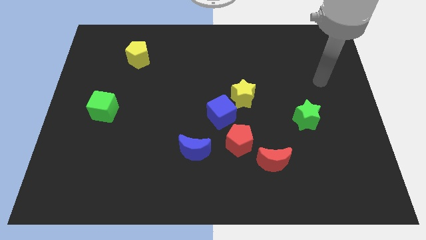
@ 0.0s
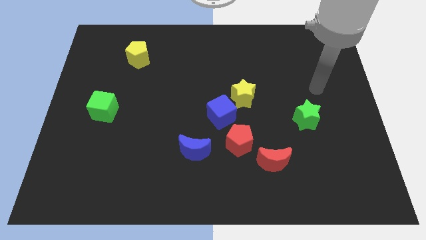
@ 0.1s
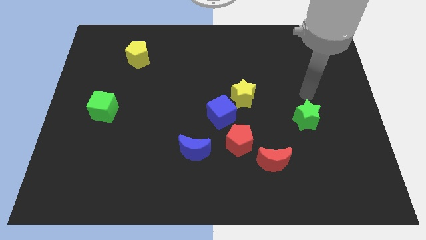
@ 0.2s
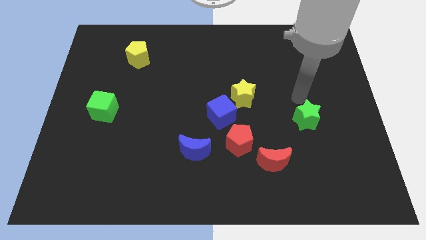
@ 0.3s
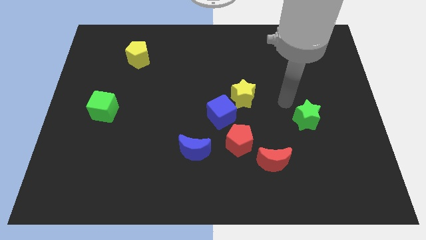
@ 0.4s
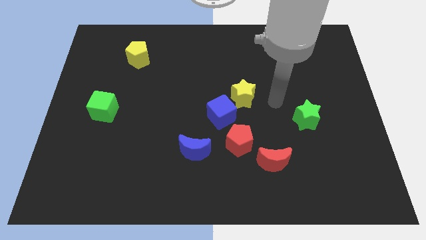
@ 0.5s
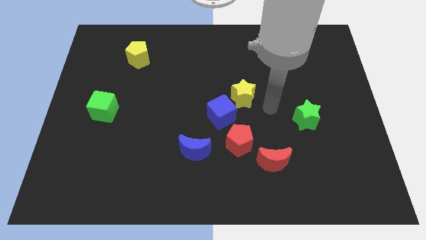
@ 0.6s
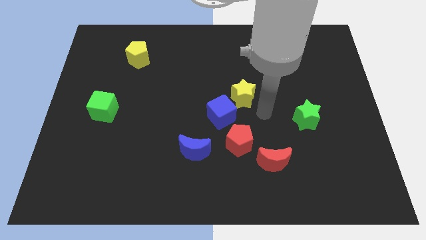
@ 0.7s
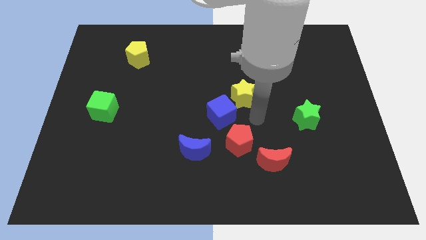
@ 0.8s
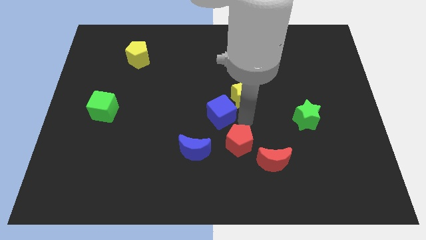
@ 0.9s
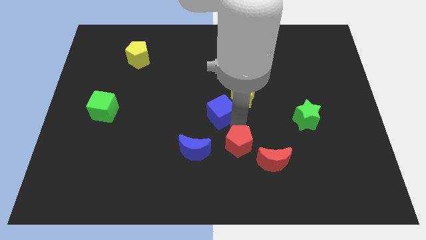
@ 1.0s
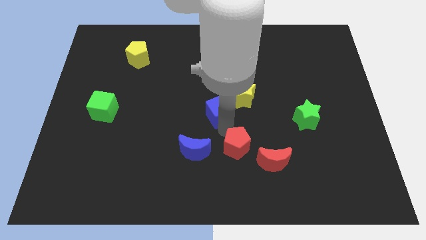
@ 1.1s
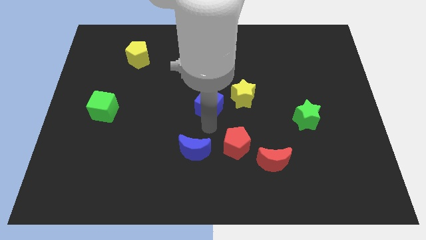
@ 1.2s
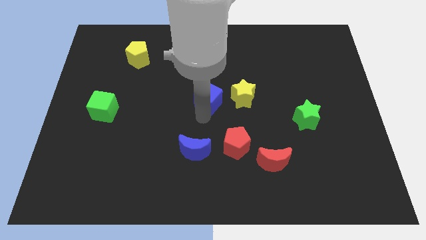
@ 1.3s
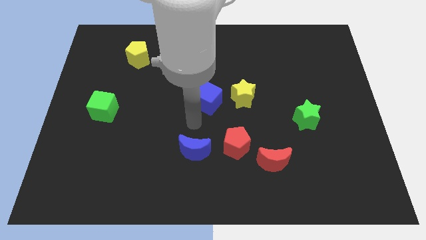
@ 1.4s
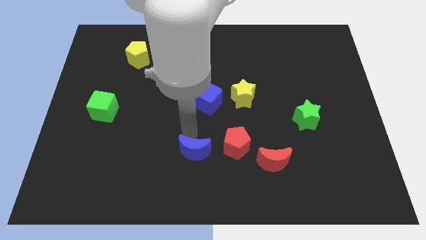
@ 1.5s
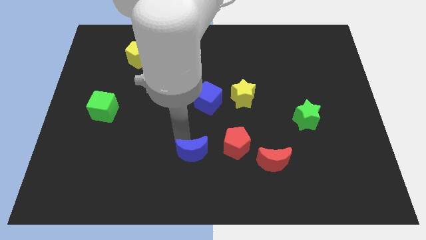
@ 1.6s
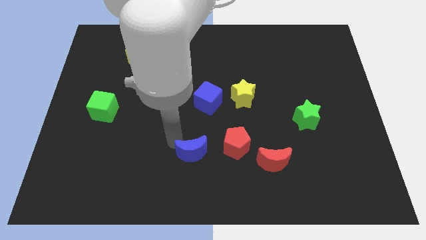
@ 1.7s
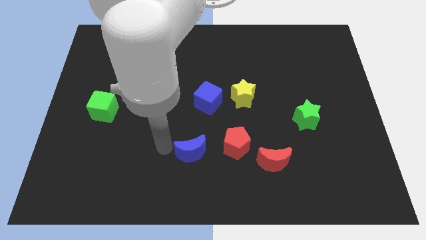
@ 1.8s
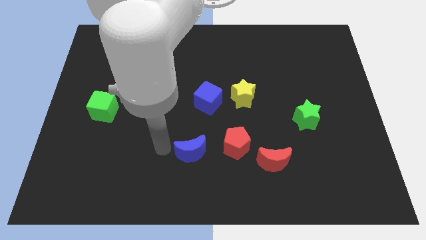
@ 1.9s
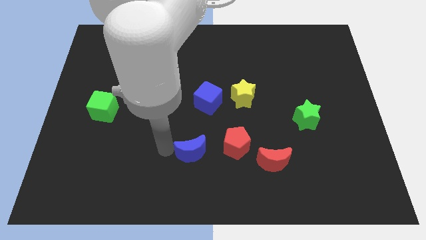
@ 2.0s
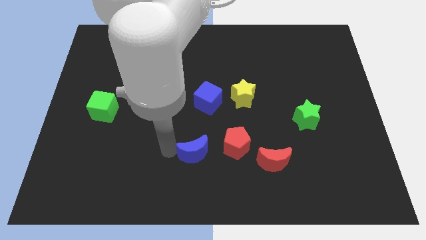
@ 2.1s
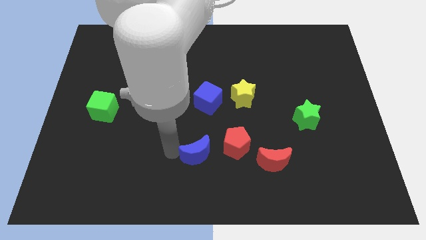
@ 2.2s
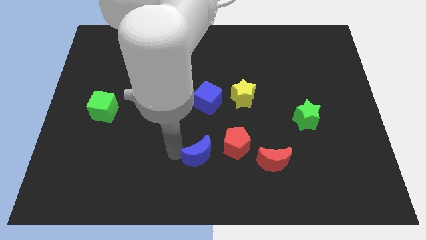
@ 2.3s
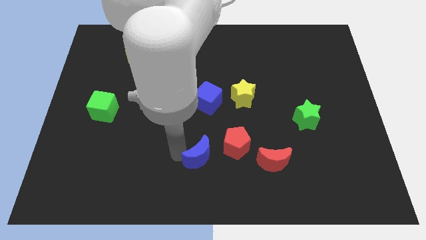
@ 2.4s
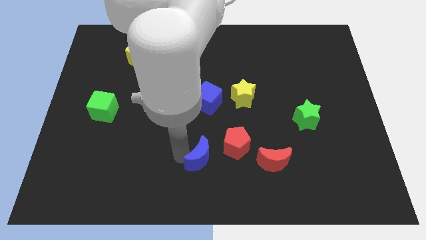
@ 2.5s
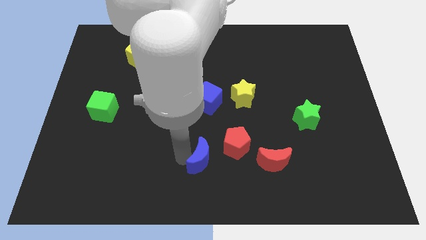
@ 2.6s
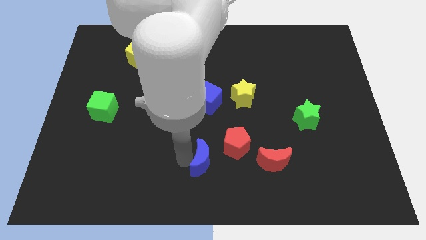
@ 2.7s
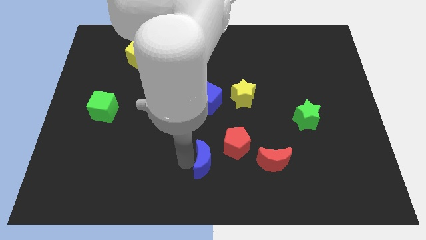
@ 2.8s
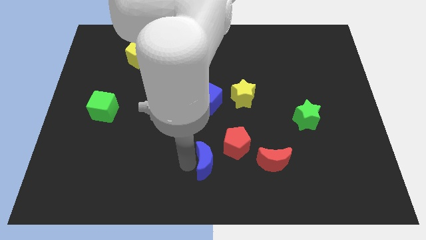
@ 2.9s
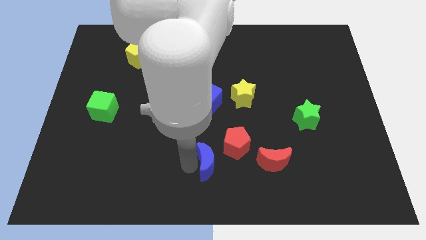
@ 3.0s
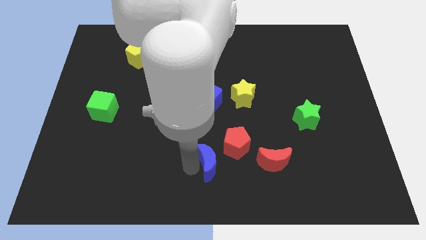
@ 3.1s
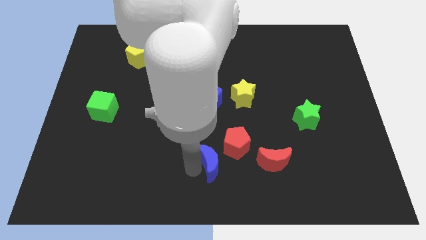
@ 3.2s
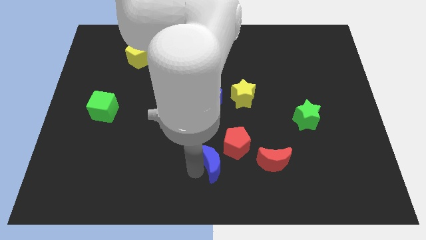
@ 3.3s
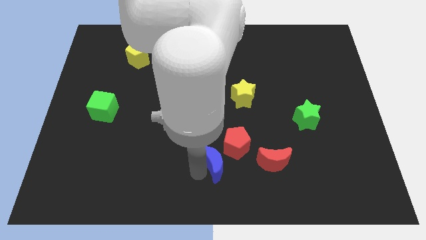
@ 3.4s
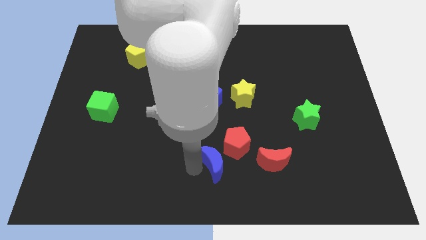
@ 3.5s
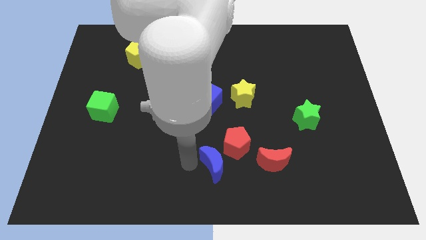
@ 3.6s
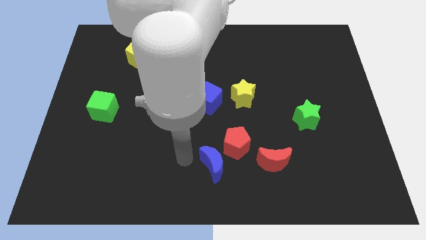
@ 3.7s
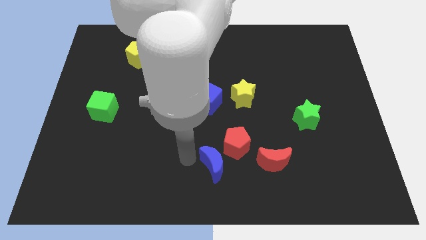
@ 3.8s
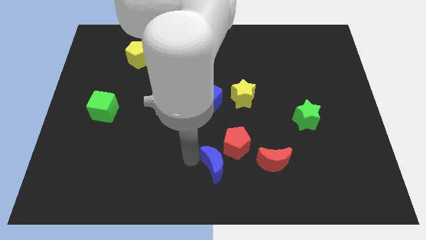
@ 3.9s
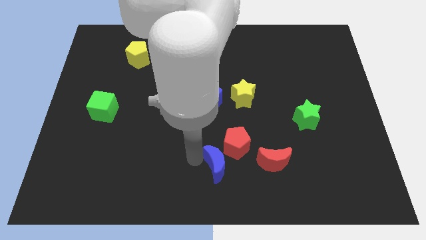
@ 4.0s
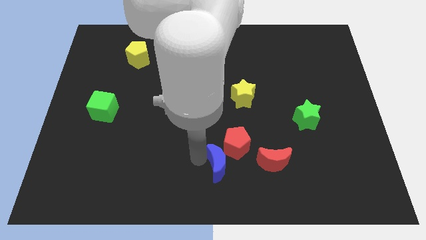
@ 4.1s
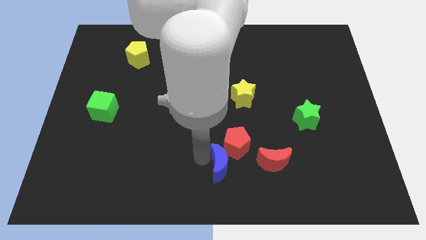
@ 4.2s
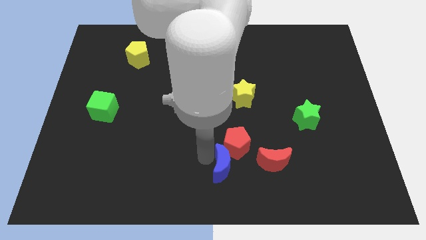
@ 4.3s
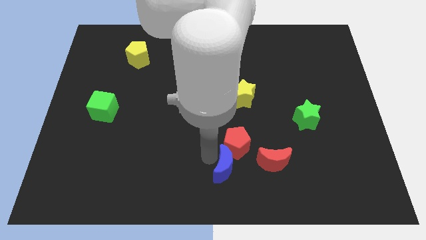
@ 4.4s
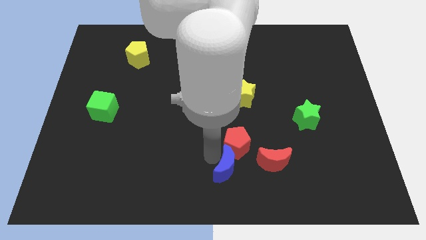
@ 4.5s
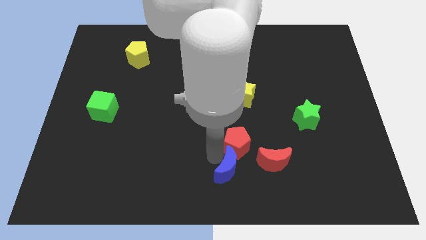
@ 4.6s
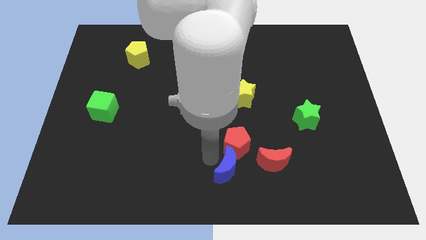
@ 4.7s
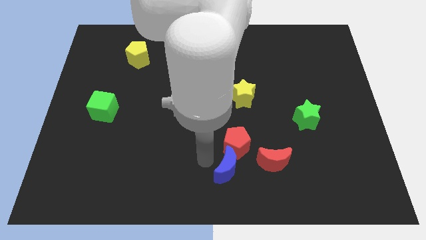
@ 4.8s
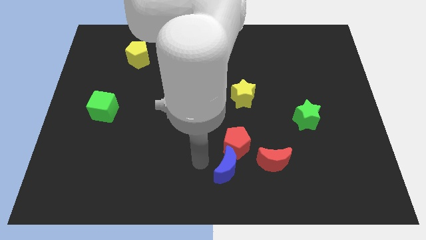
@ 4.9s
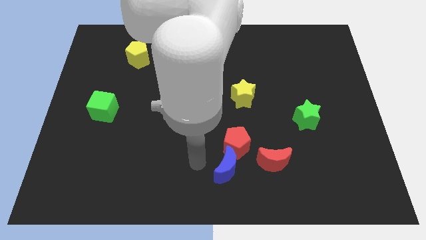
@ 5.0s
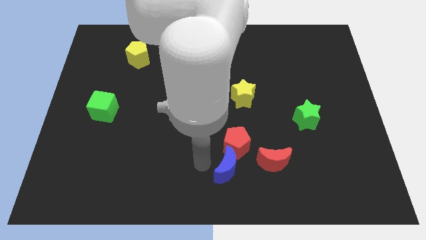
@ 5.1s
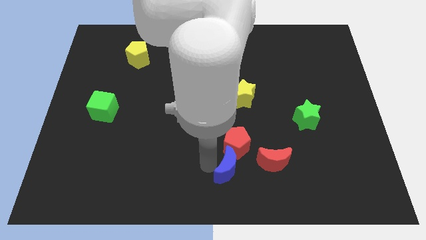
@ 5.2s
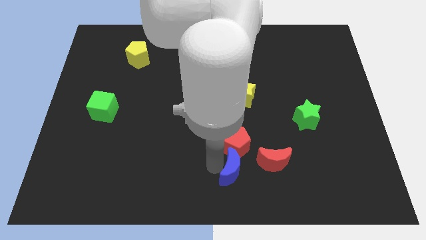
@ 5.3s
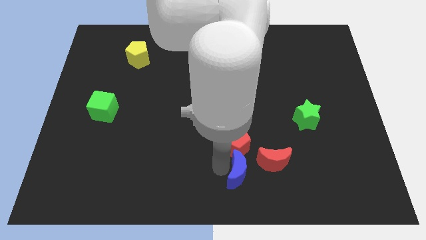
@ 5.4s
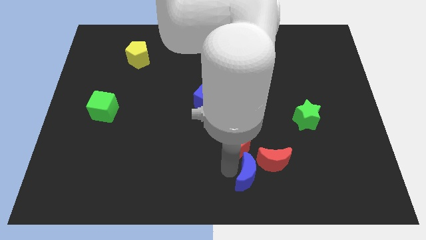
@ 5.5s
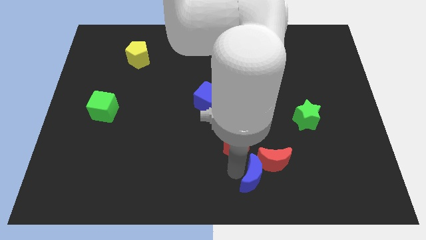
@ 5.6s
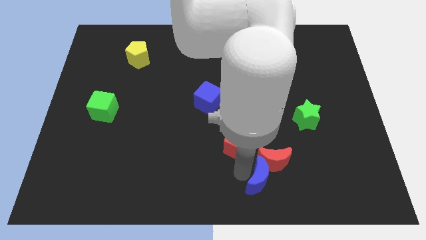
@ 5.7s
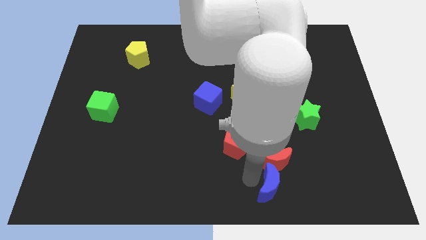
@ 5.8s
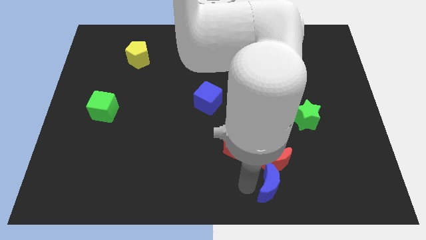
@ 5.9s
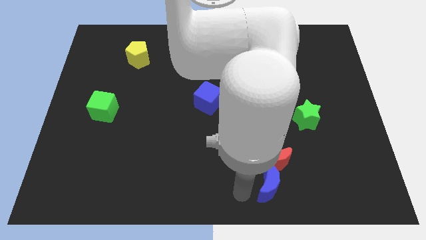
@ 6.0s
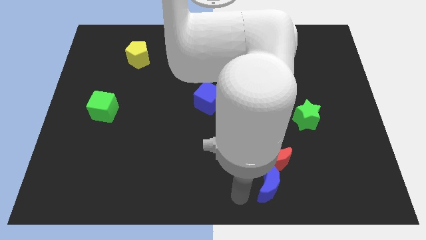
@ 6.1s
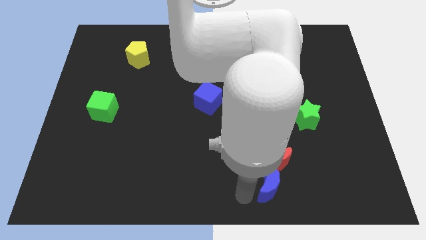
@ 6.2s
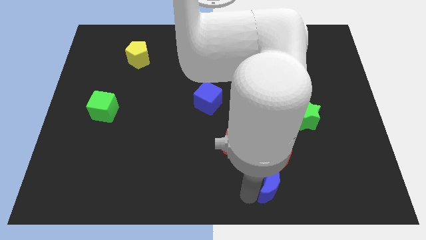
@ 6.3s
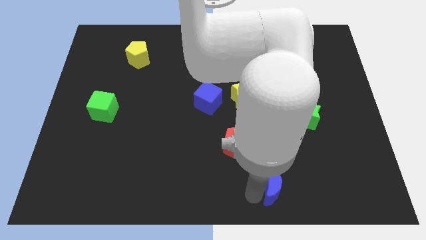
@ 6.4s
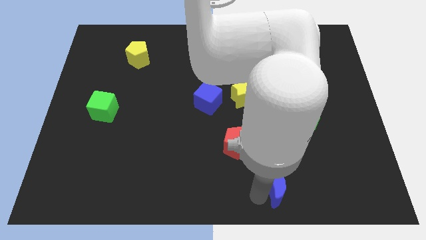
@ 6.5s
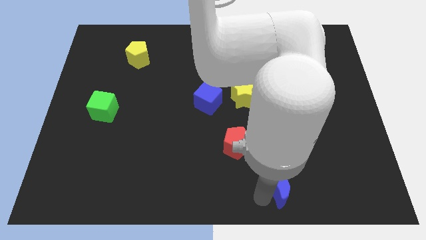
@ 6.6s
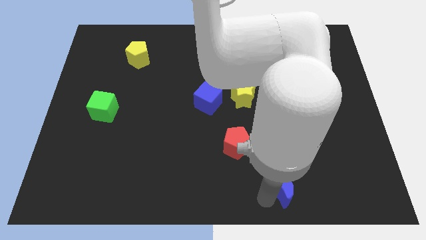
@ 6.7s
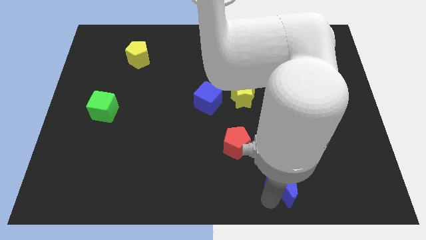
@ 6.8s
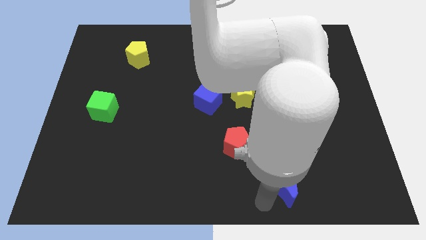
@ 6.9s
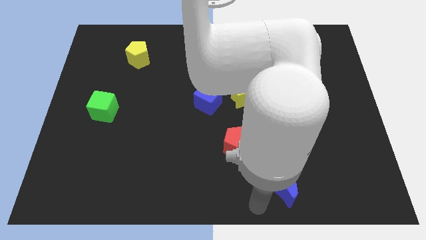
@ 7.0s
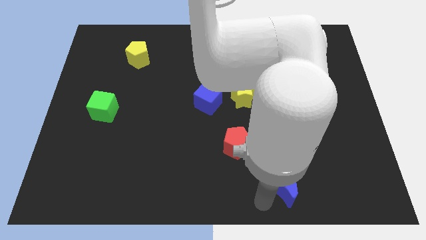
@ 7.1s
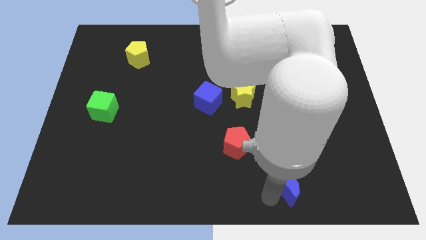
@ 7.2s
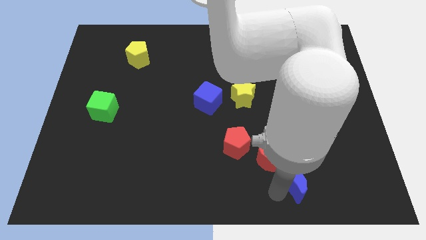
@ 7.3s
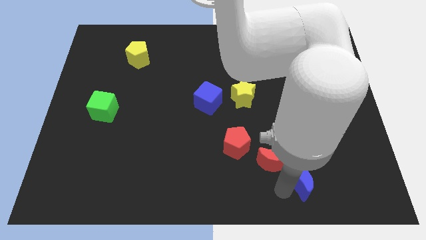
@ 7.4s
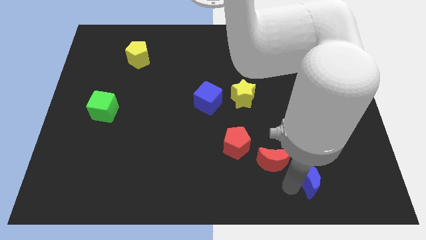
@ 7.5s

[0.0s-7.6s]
move the blue moon to the right

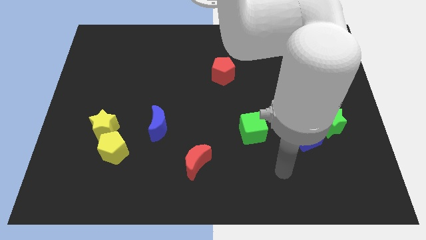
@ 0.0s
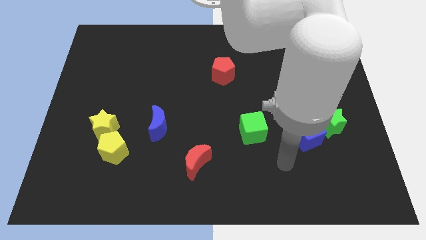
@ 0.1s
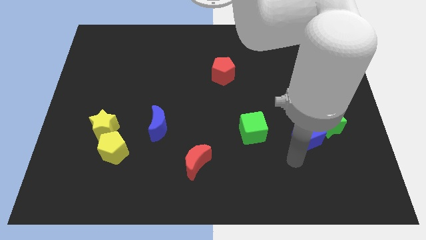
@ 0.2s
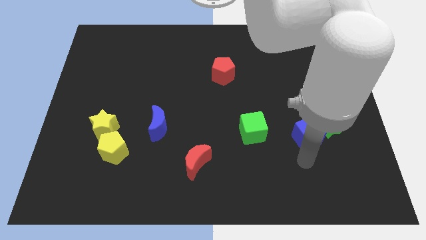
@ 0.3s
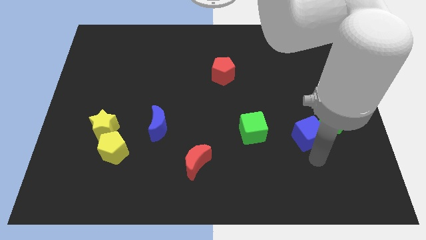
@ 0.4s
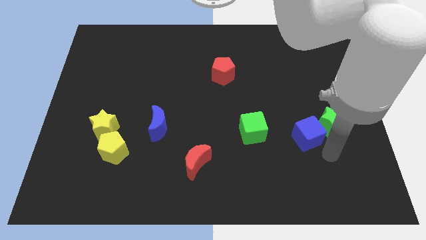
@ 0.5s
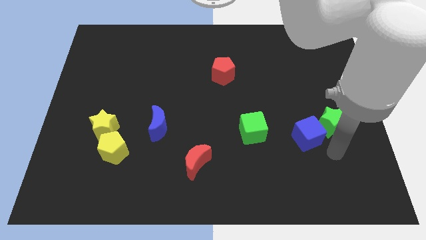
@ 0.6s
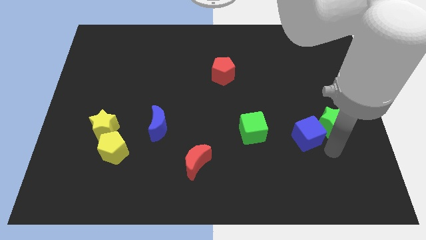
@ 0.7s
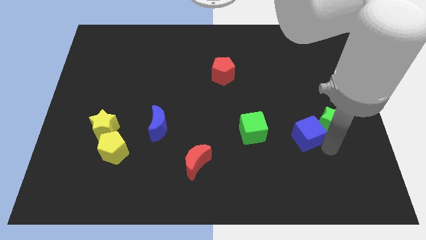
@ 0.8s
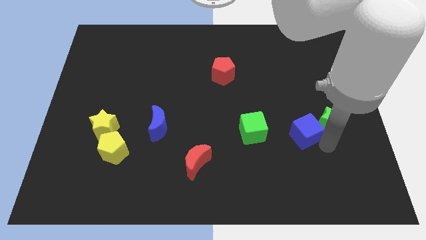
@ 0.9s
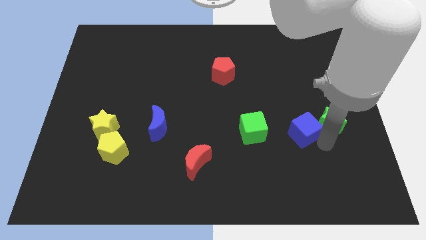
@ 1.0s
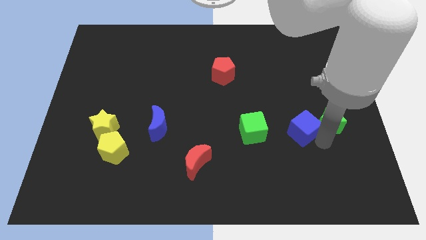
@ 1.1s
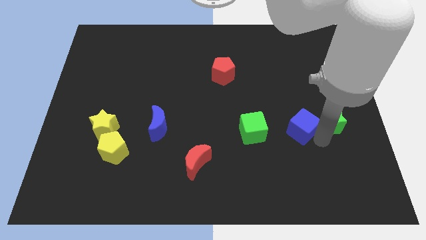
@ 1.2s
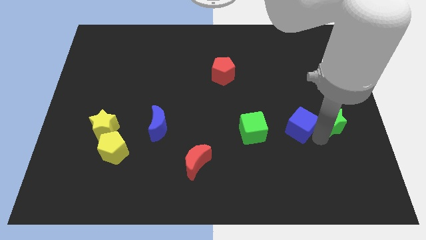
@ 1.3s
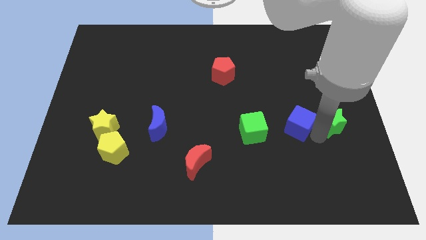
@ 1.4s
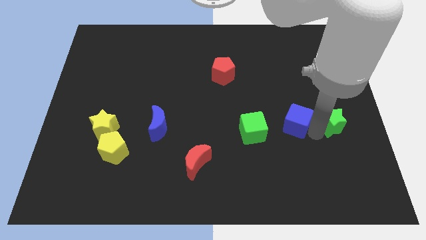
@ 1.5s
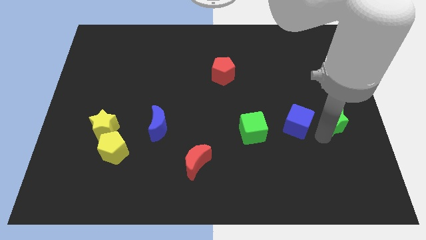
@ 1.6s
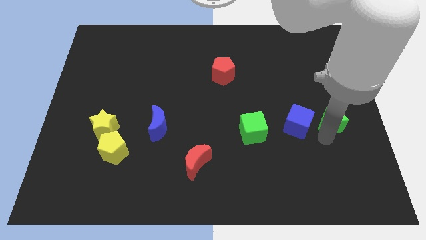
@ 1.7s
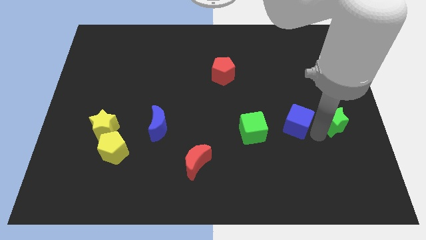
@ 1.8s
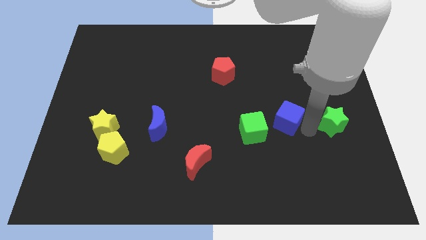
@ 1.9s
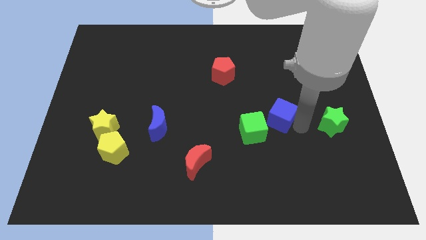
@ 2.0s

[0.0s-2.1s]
slightly slide the blue cube up and to the left diagonally
